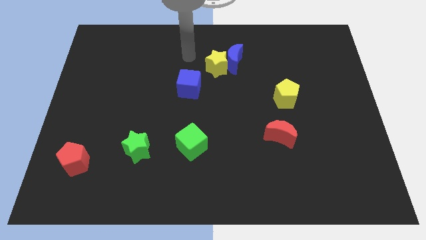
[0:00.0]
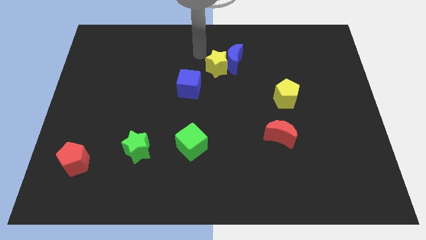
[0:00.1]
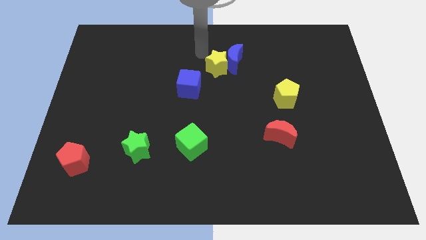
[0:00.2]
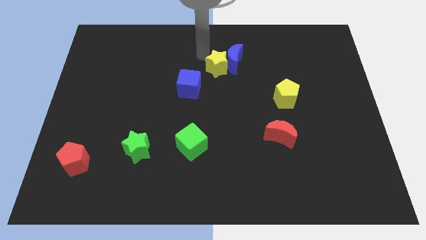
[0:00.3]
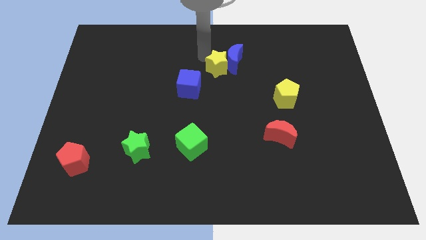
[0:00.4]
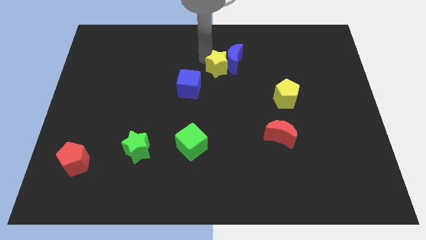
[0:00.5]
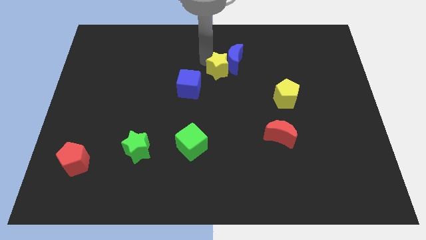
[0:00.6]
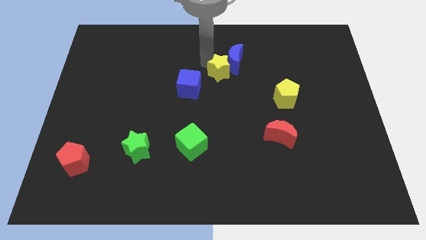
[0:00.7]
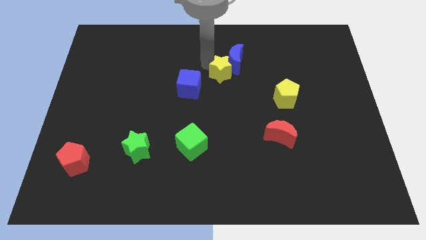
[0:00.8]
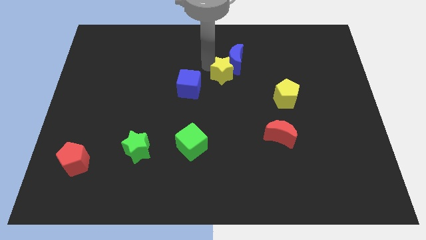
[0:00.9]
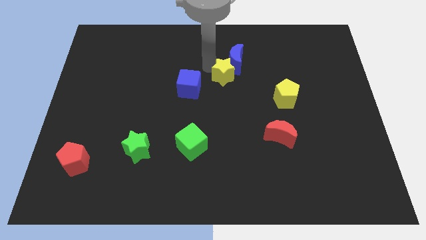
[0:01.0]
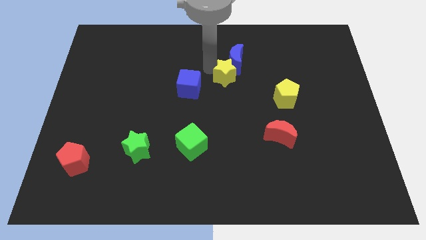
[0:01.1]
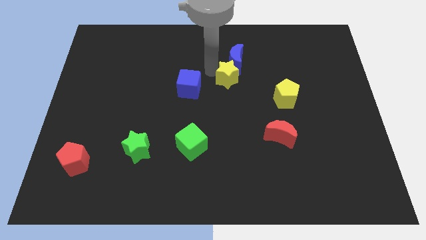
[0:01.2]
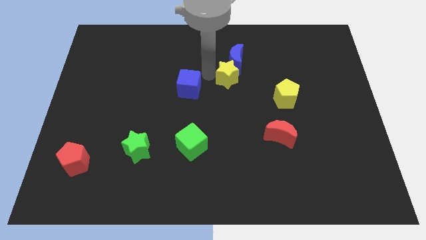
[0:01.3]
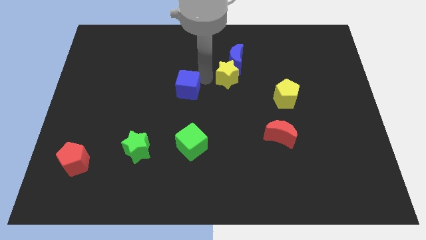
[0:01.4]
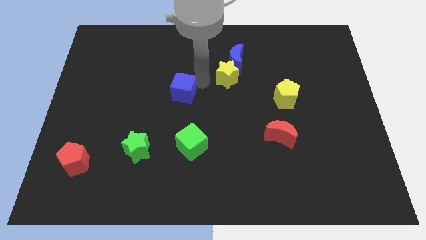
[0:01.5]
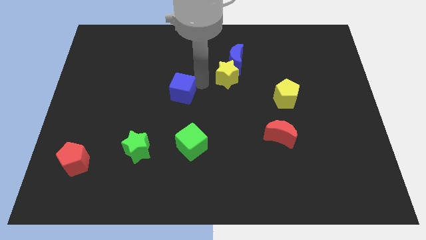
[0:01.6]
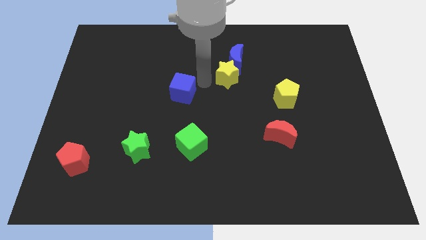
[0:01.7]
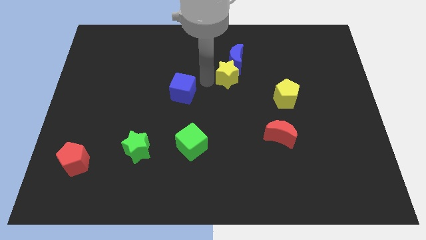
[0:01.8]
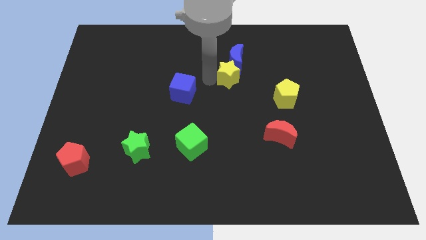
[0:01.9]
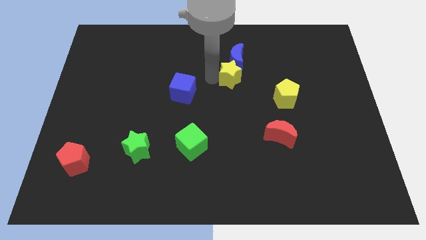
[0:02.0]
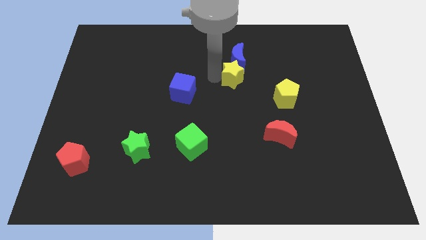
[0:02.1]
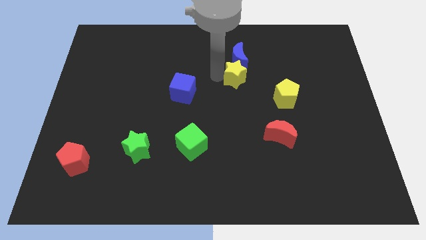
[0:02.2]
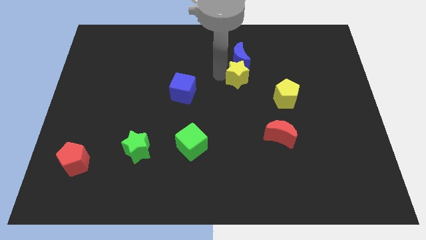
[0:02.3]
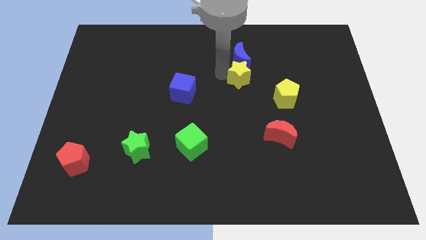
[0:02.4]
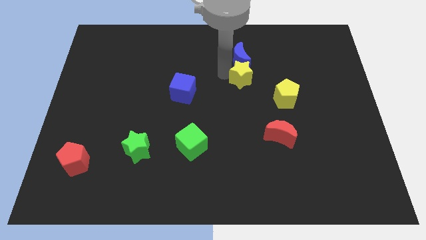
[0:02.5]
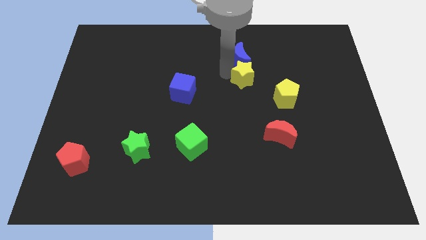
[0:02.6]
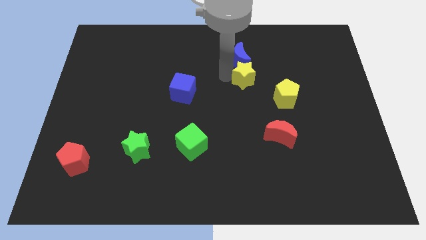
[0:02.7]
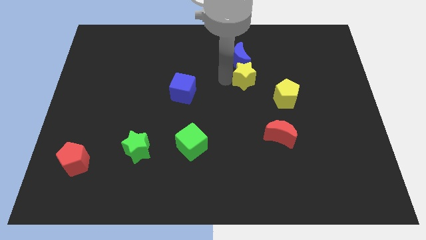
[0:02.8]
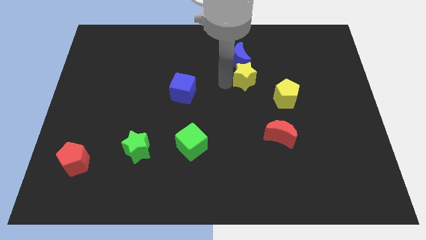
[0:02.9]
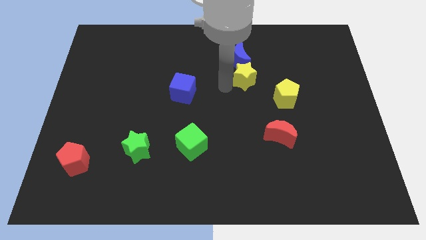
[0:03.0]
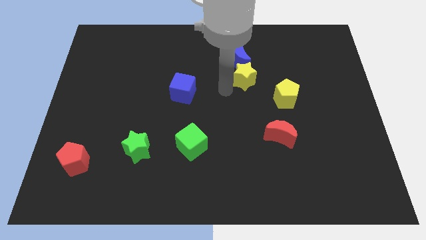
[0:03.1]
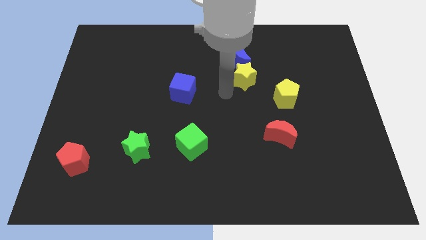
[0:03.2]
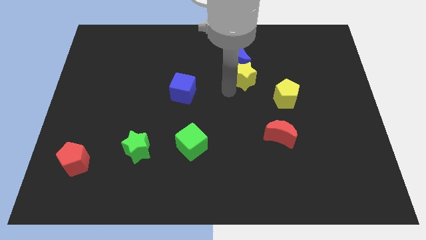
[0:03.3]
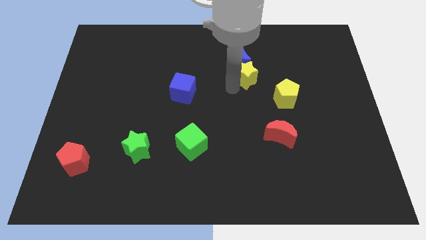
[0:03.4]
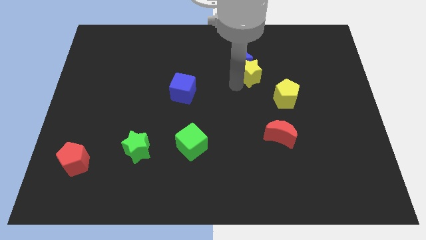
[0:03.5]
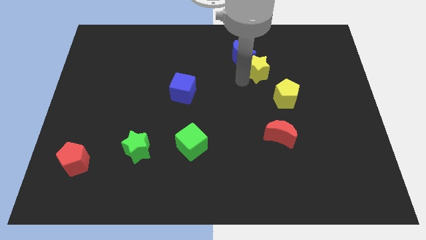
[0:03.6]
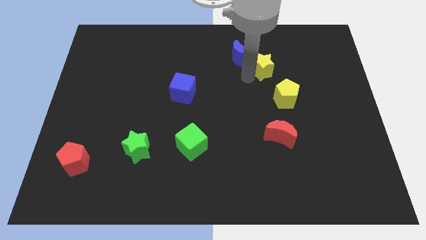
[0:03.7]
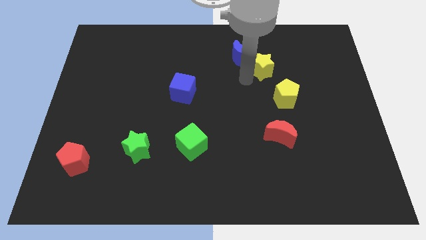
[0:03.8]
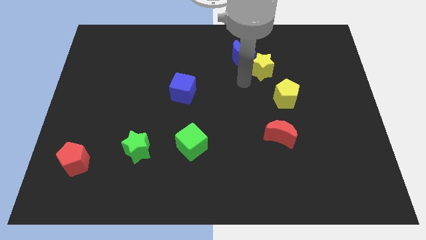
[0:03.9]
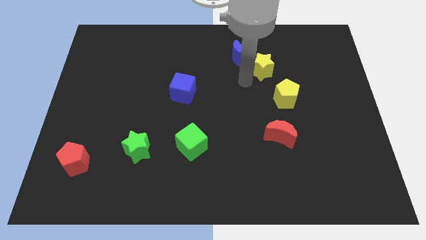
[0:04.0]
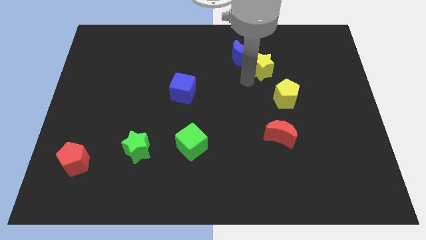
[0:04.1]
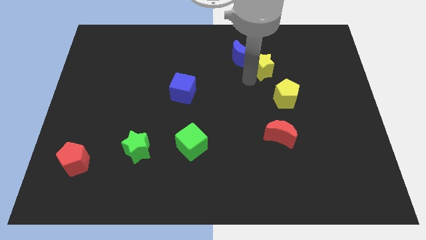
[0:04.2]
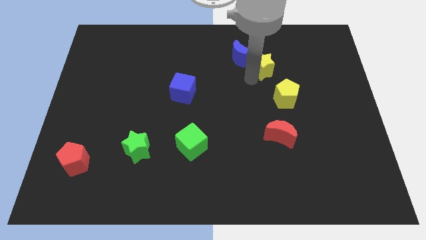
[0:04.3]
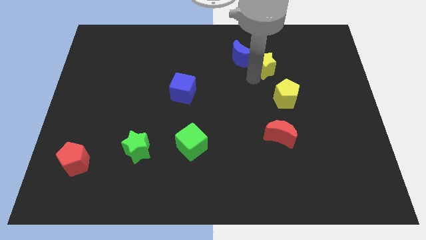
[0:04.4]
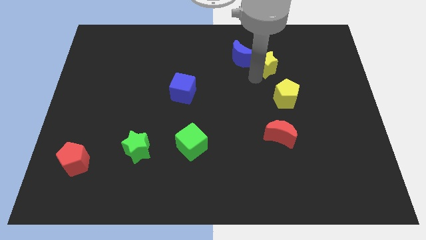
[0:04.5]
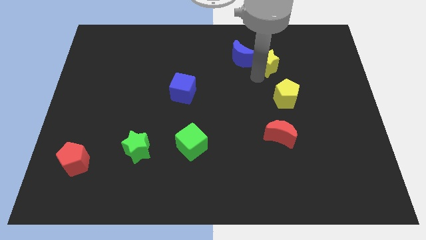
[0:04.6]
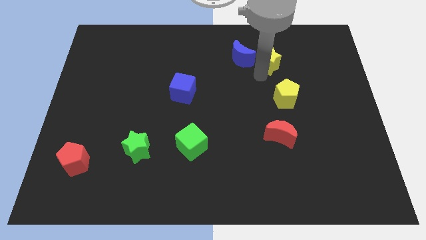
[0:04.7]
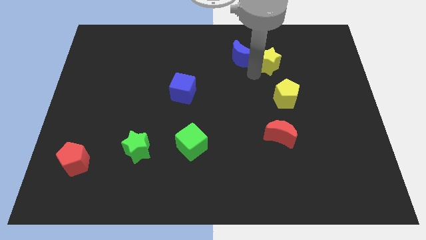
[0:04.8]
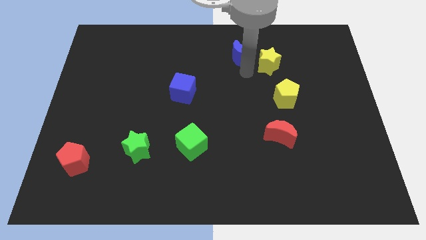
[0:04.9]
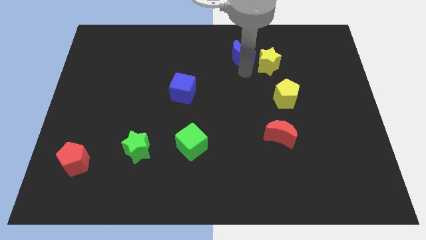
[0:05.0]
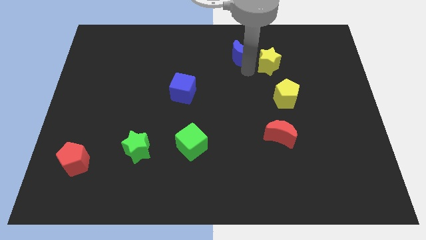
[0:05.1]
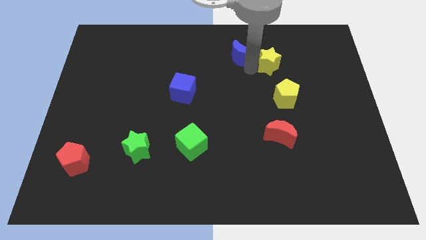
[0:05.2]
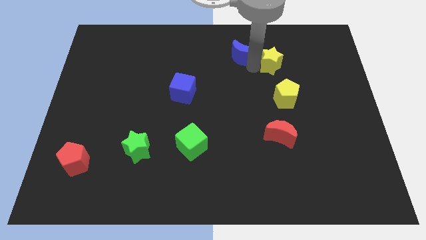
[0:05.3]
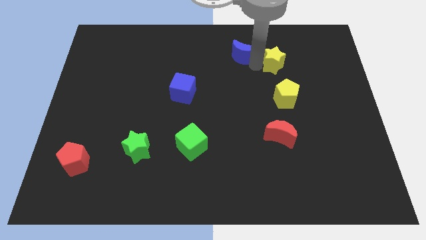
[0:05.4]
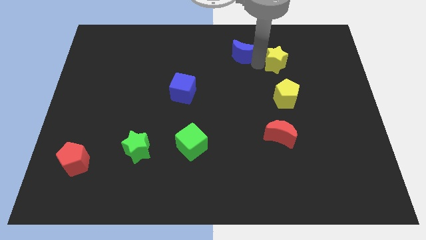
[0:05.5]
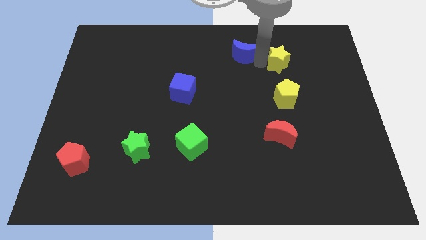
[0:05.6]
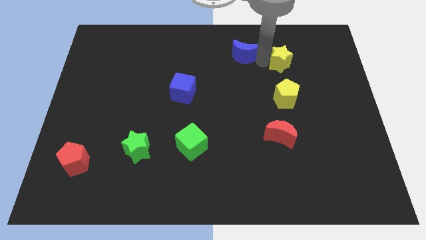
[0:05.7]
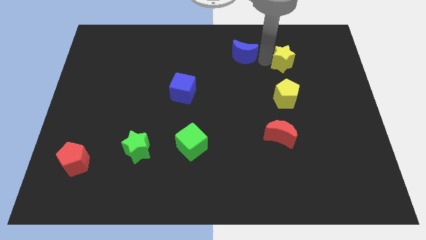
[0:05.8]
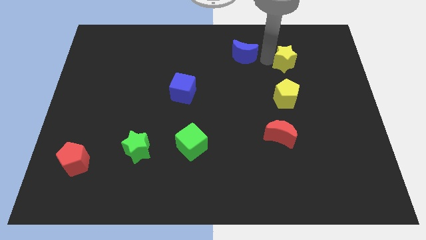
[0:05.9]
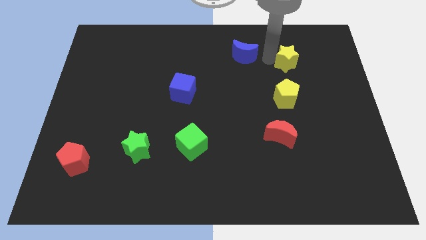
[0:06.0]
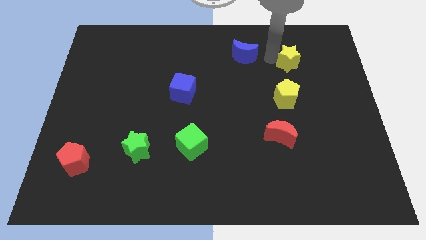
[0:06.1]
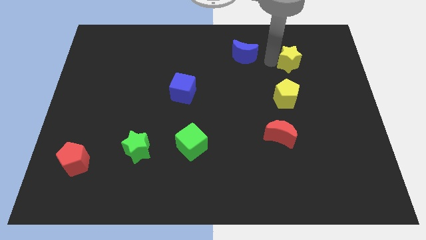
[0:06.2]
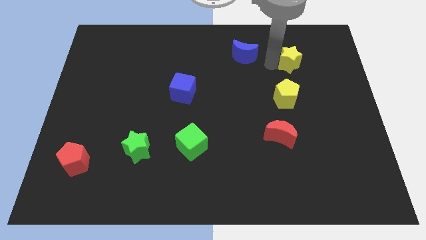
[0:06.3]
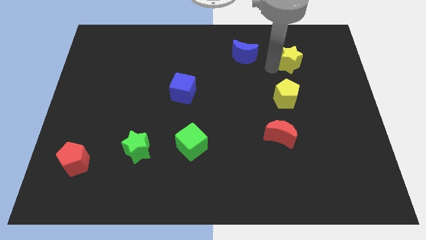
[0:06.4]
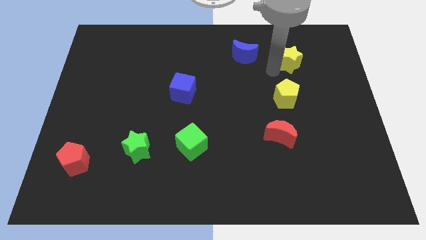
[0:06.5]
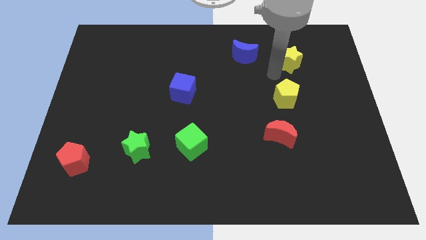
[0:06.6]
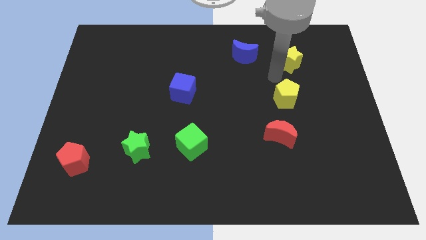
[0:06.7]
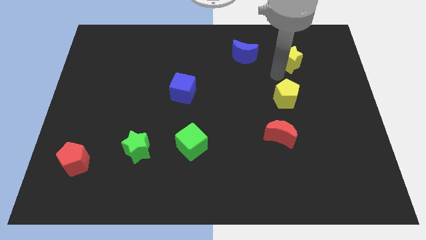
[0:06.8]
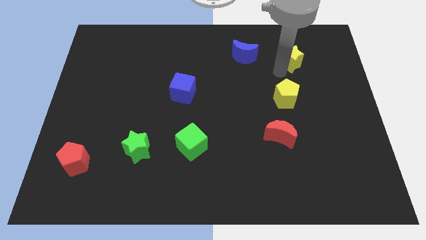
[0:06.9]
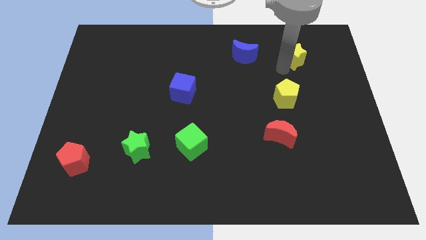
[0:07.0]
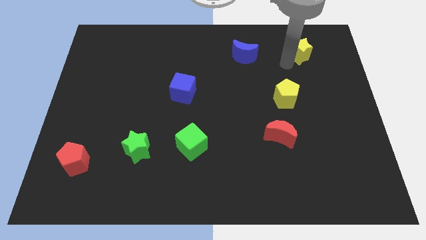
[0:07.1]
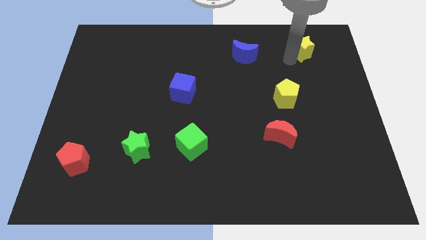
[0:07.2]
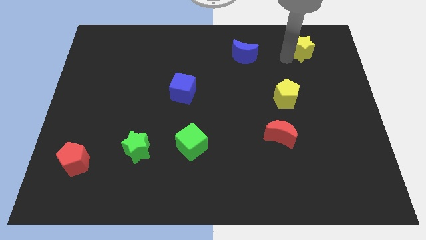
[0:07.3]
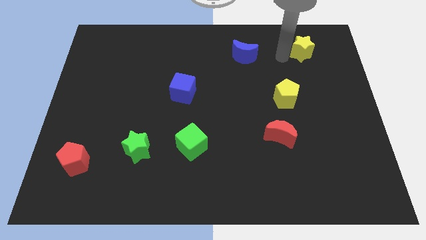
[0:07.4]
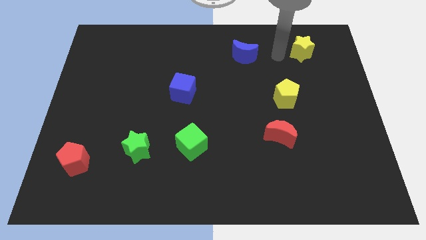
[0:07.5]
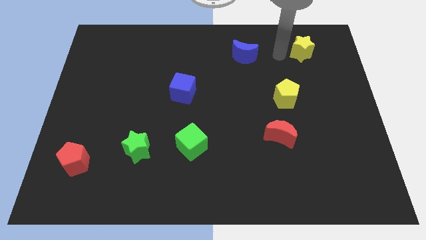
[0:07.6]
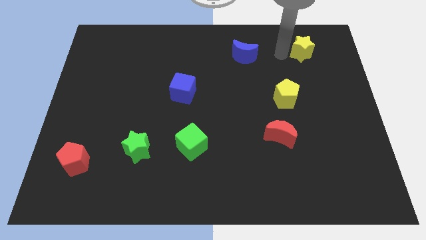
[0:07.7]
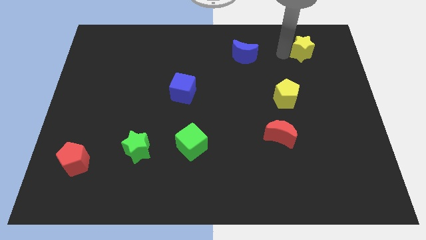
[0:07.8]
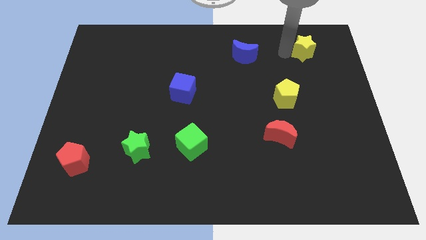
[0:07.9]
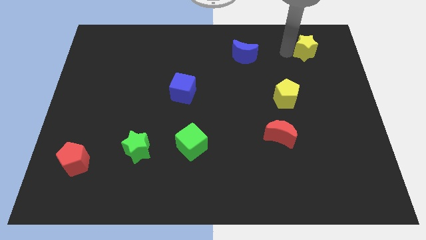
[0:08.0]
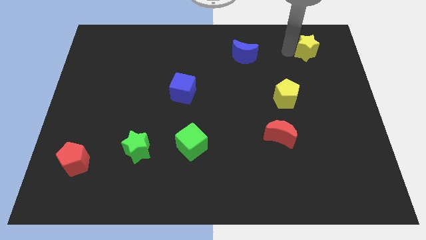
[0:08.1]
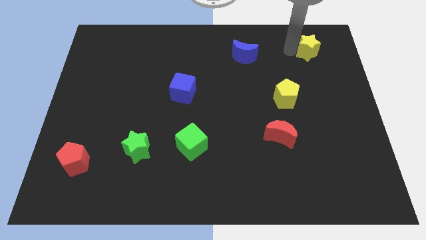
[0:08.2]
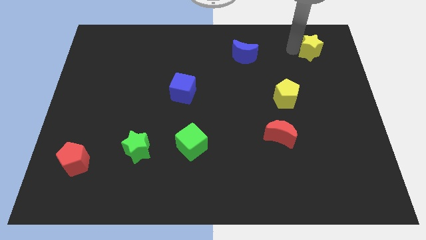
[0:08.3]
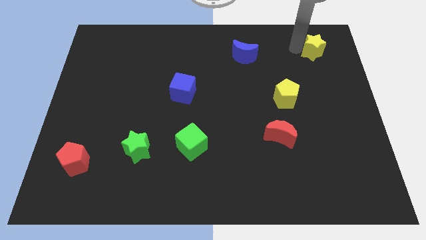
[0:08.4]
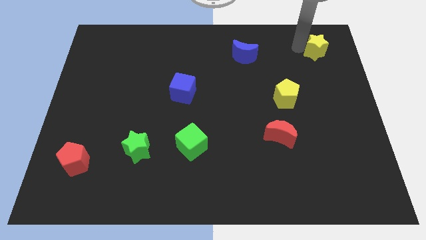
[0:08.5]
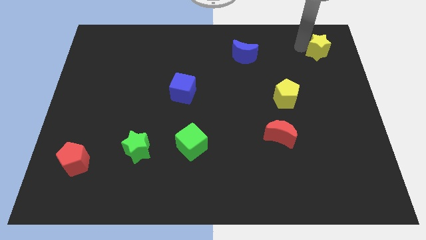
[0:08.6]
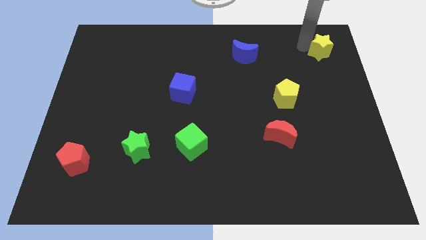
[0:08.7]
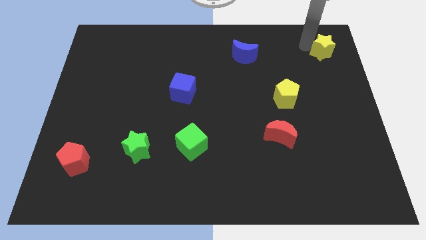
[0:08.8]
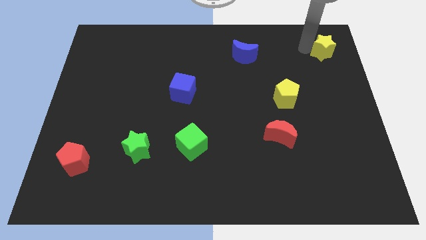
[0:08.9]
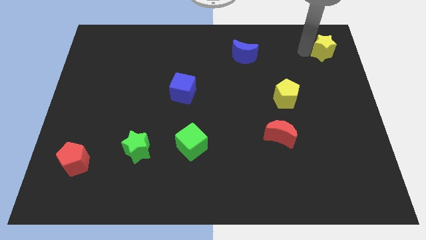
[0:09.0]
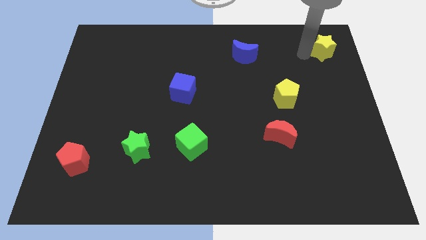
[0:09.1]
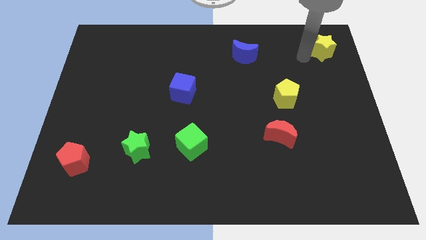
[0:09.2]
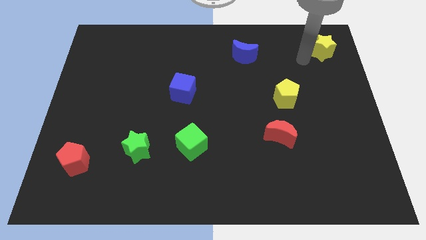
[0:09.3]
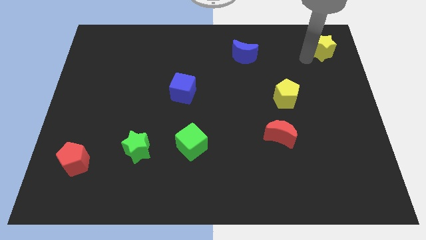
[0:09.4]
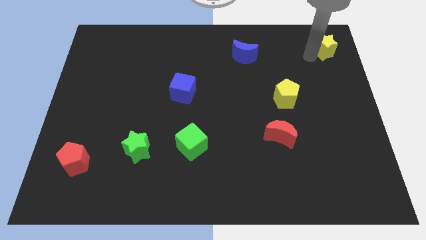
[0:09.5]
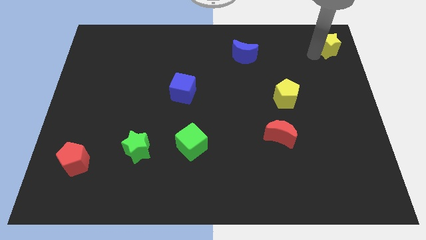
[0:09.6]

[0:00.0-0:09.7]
put the yellow star to the top right
